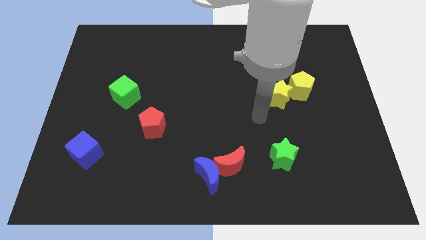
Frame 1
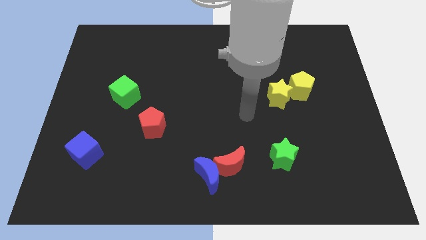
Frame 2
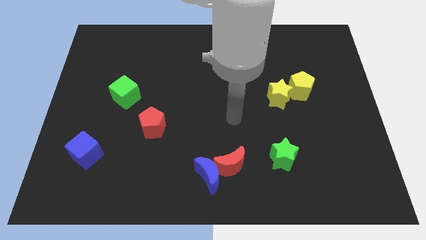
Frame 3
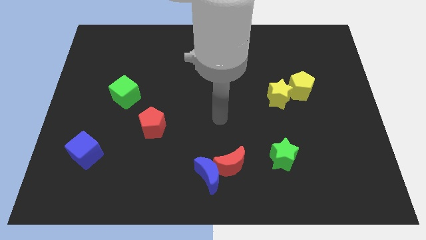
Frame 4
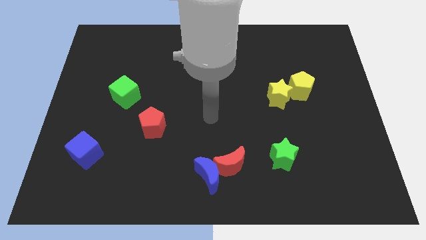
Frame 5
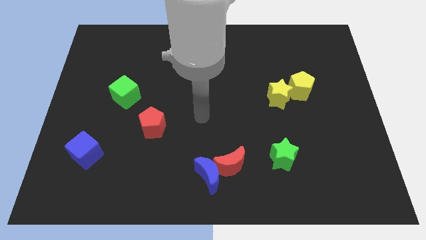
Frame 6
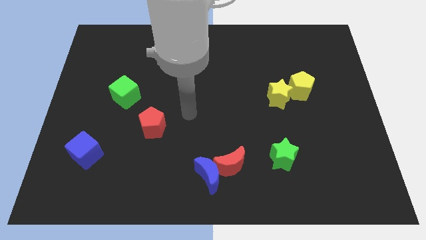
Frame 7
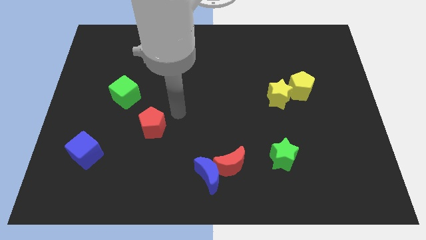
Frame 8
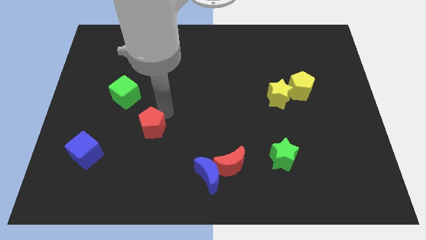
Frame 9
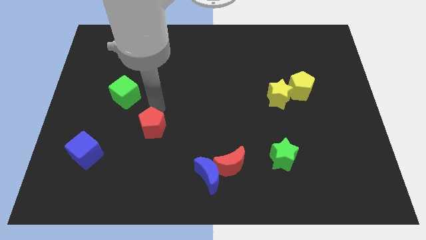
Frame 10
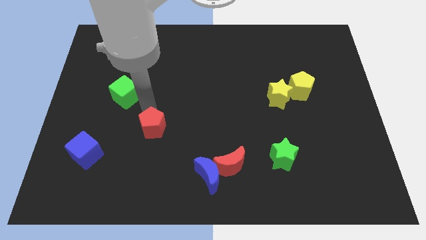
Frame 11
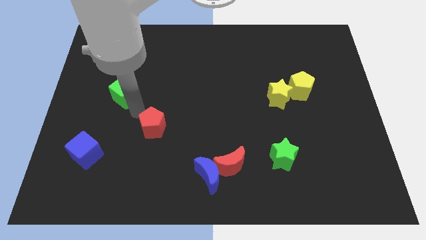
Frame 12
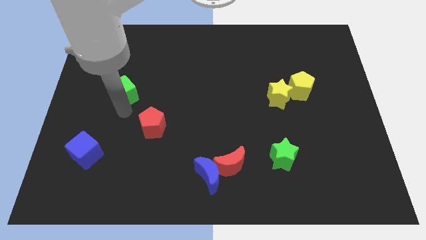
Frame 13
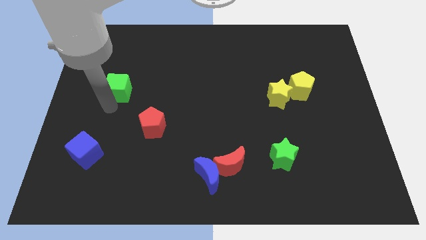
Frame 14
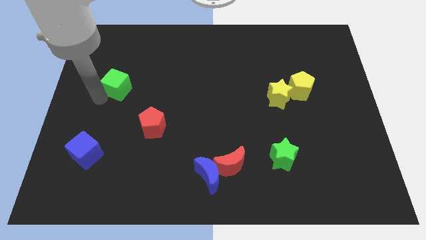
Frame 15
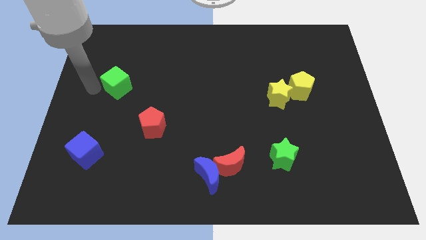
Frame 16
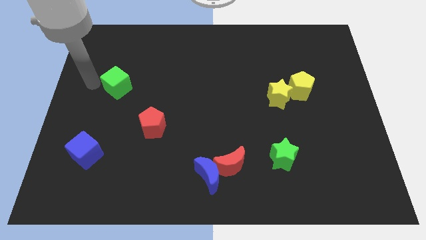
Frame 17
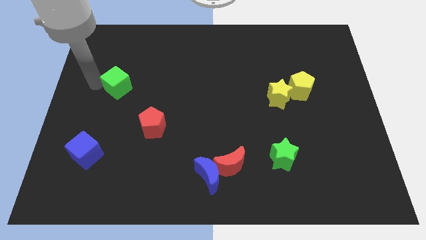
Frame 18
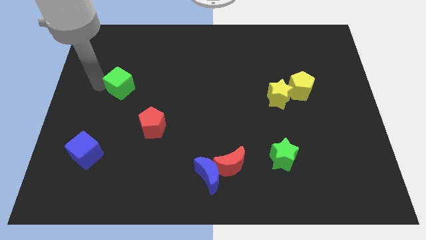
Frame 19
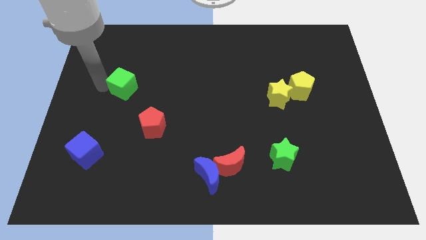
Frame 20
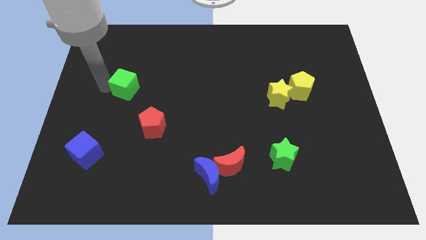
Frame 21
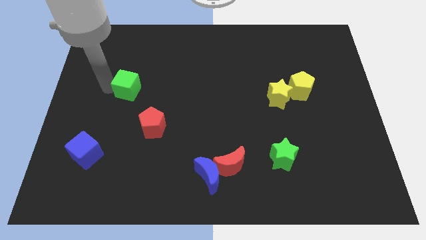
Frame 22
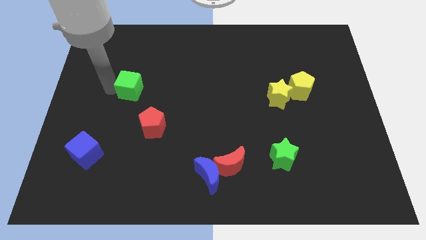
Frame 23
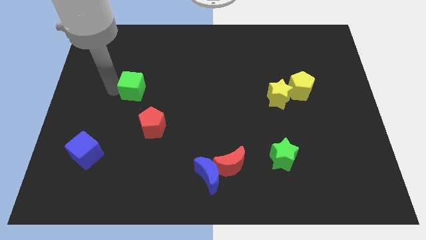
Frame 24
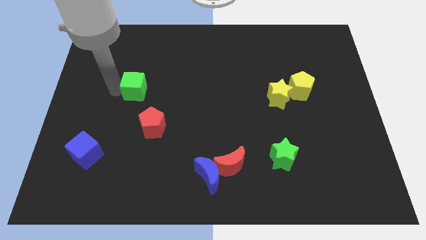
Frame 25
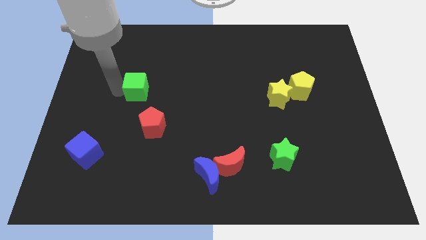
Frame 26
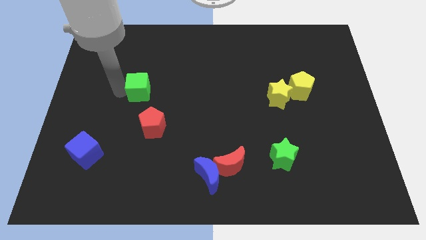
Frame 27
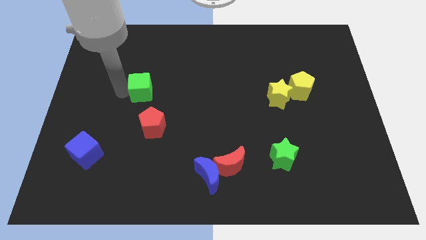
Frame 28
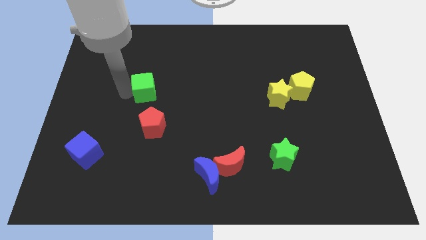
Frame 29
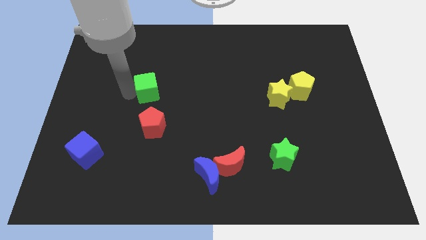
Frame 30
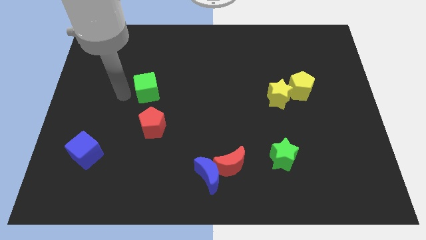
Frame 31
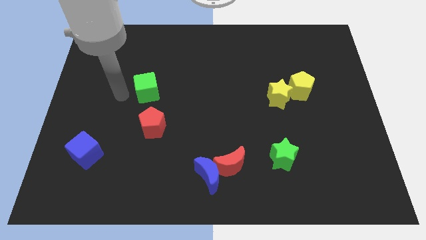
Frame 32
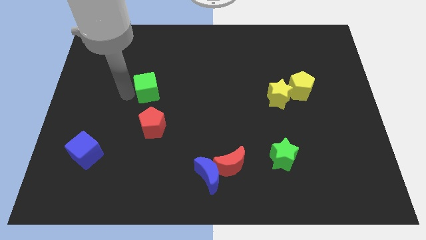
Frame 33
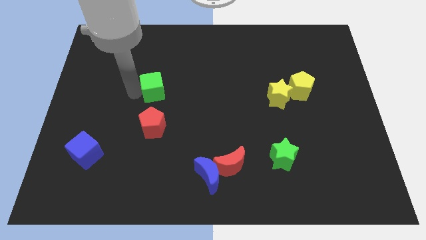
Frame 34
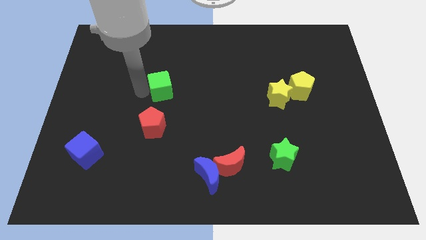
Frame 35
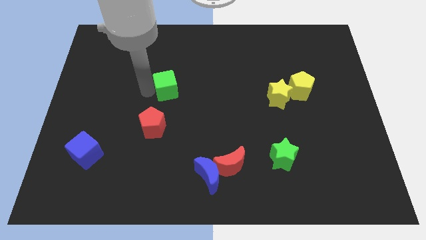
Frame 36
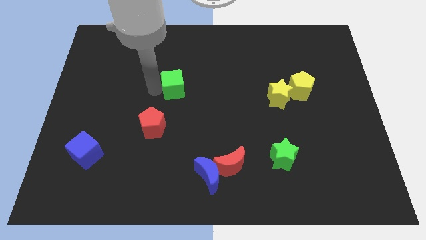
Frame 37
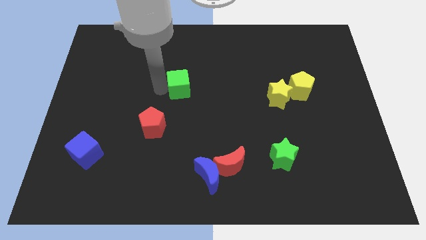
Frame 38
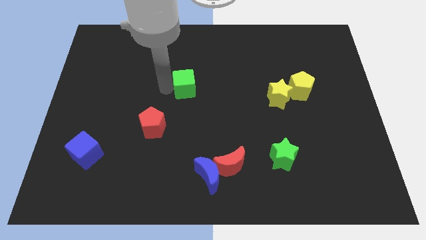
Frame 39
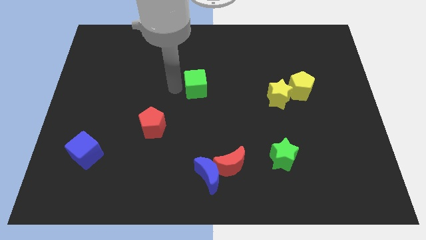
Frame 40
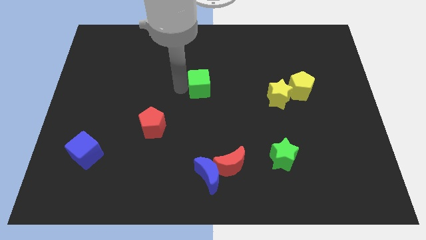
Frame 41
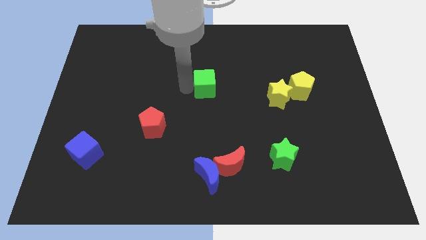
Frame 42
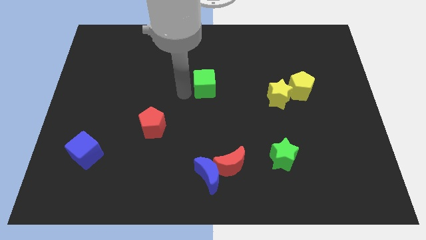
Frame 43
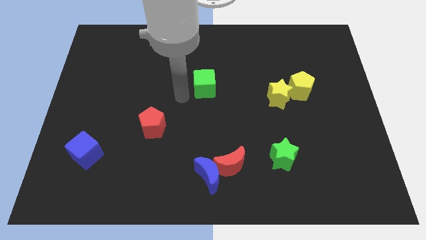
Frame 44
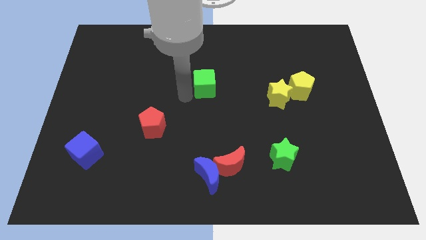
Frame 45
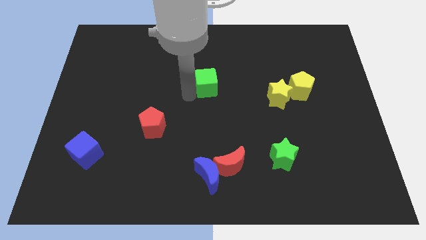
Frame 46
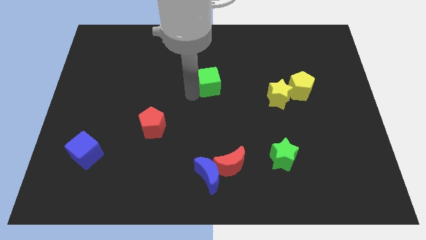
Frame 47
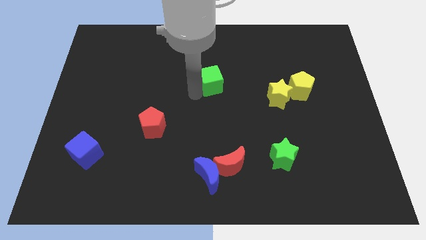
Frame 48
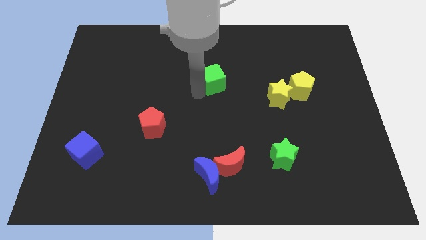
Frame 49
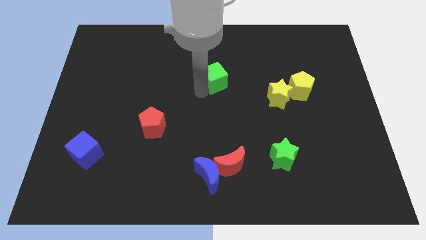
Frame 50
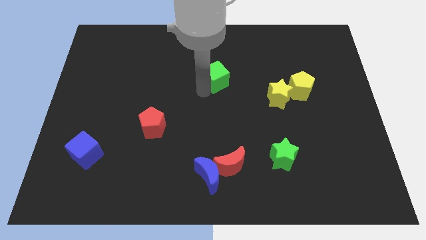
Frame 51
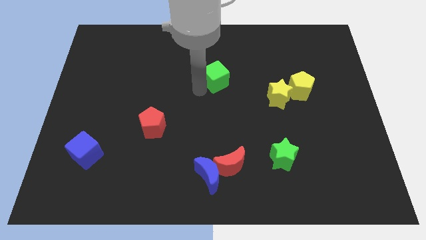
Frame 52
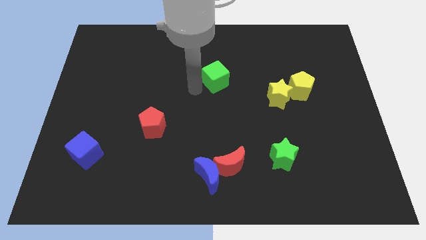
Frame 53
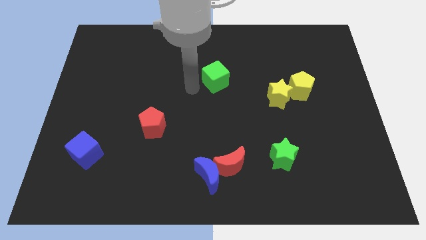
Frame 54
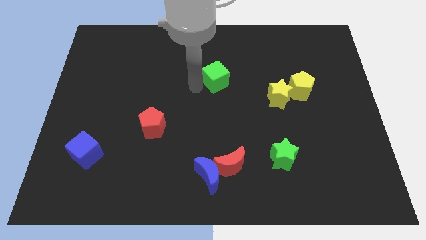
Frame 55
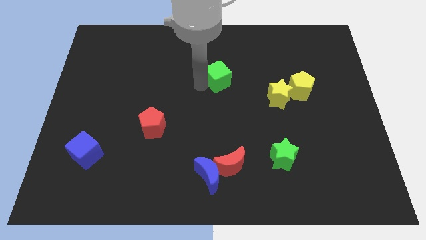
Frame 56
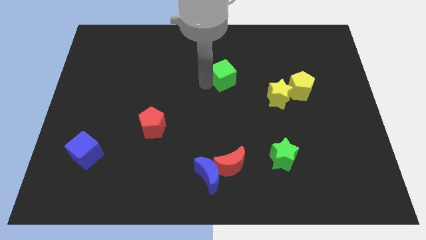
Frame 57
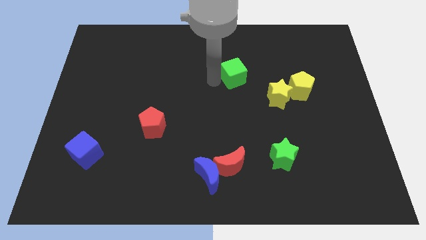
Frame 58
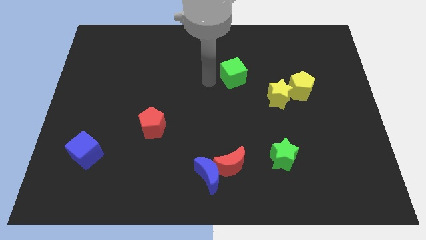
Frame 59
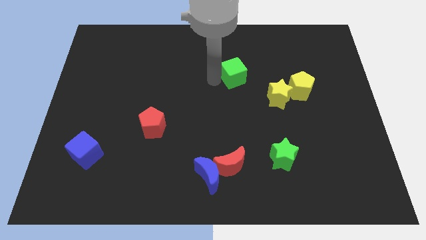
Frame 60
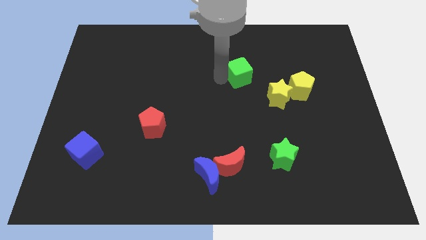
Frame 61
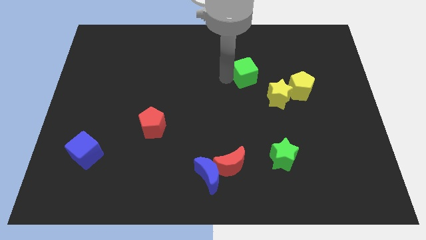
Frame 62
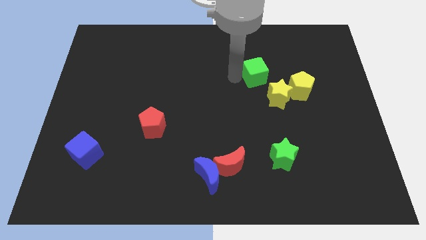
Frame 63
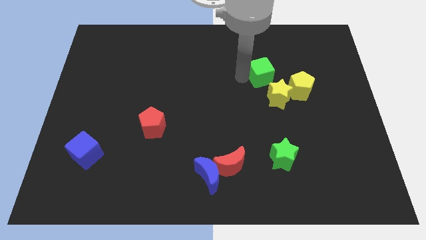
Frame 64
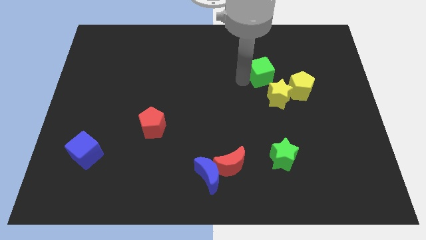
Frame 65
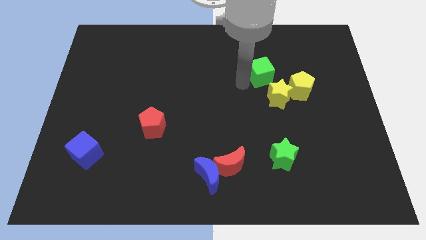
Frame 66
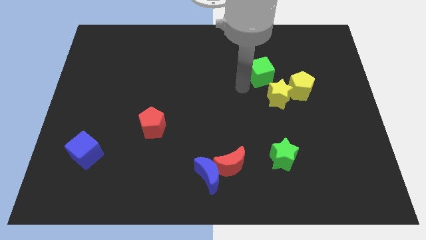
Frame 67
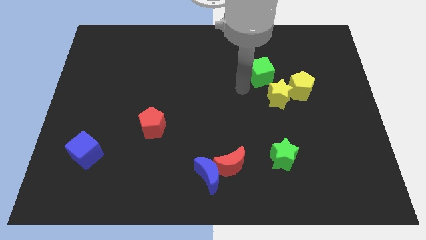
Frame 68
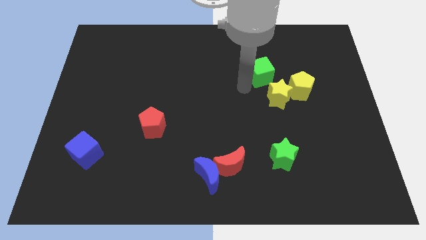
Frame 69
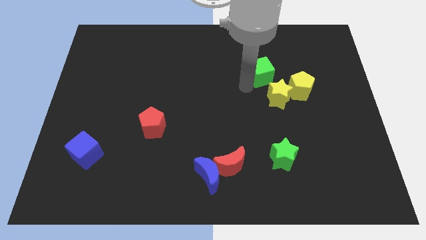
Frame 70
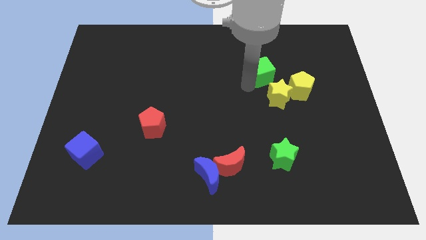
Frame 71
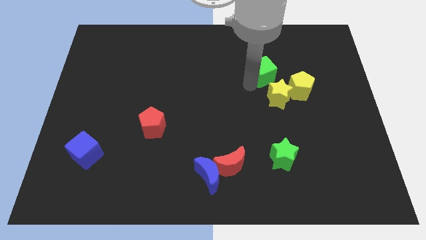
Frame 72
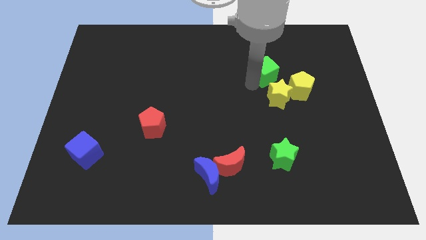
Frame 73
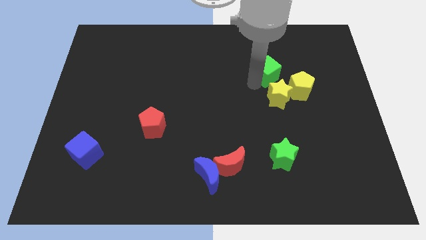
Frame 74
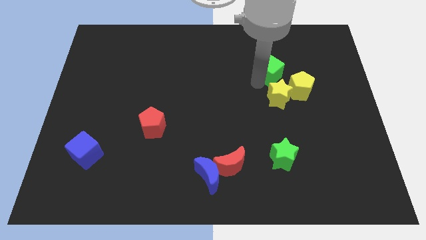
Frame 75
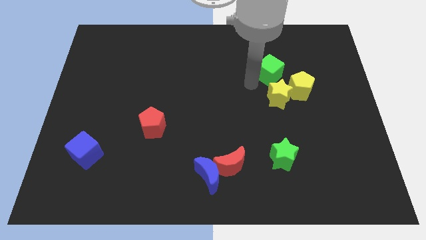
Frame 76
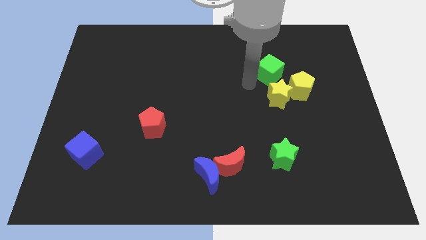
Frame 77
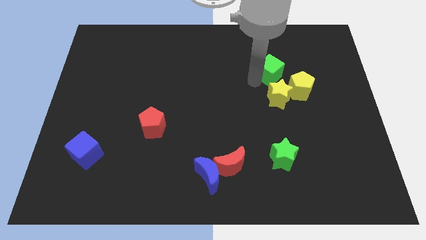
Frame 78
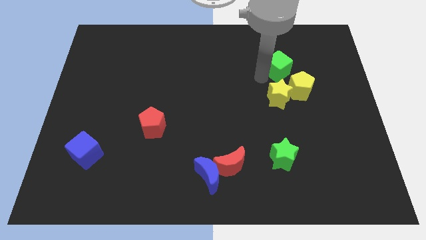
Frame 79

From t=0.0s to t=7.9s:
move the green cube to the top of the yellow pentagon
